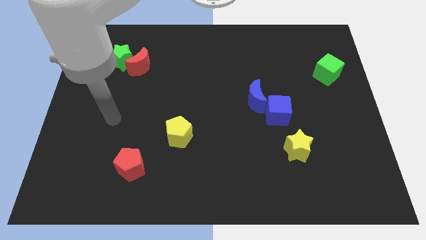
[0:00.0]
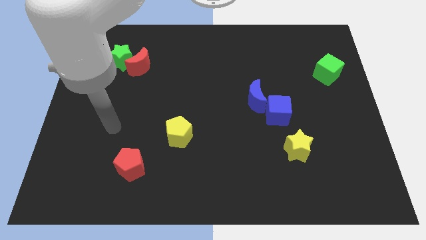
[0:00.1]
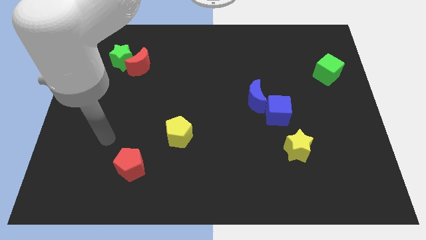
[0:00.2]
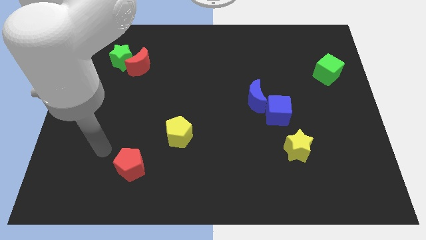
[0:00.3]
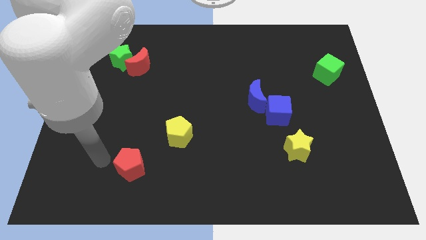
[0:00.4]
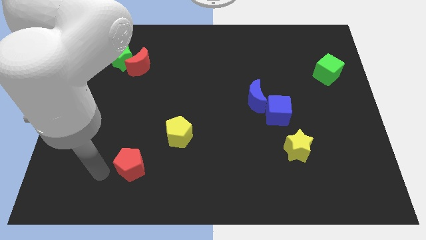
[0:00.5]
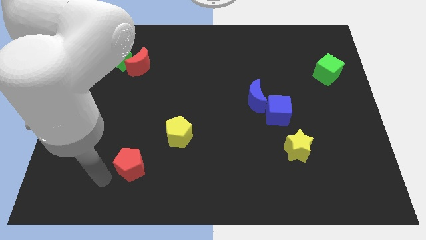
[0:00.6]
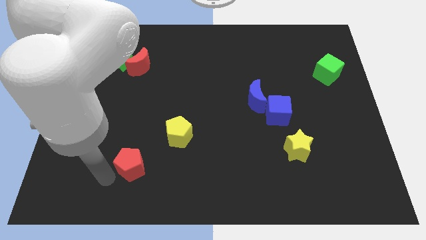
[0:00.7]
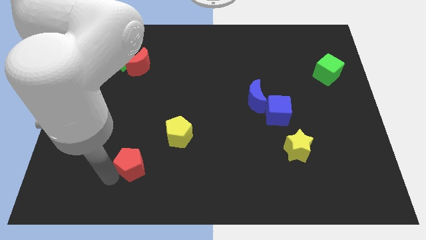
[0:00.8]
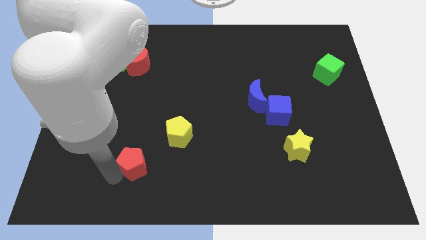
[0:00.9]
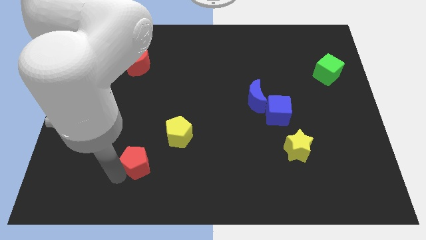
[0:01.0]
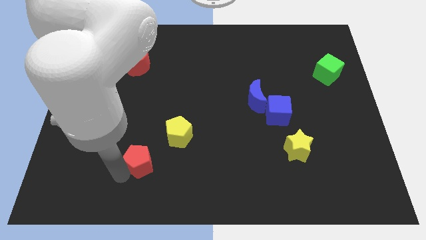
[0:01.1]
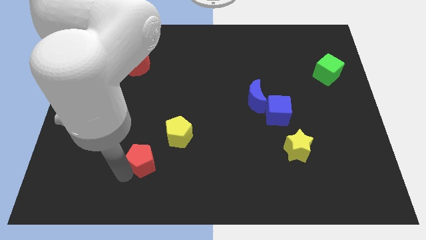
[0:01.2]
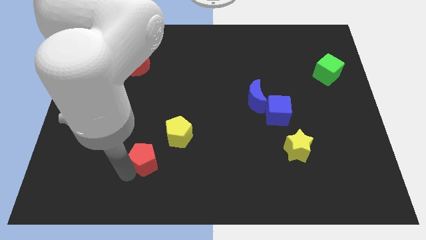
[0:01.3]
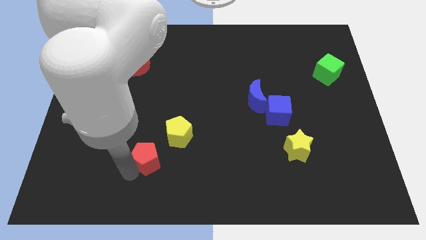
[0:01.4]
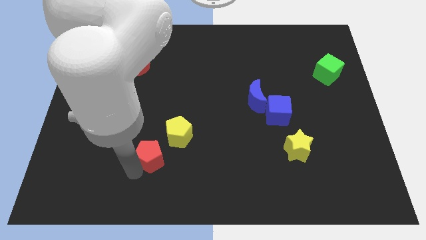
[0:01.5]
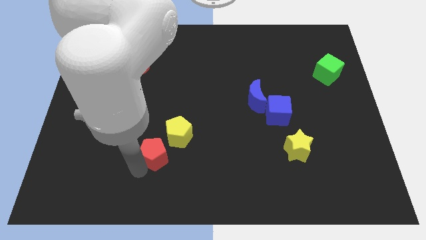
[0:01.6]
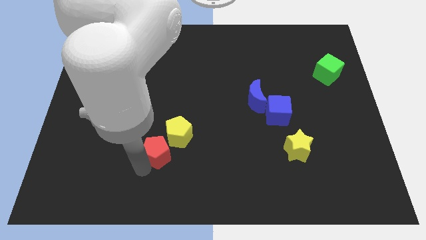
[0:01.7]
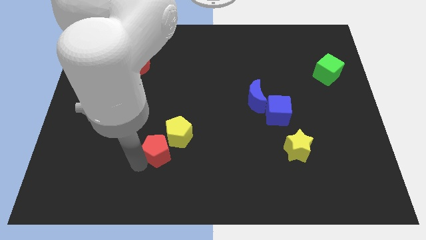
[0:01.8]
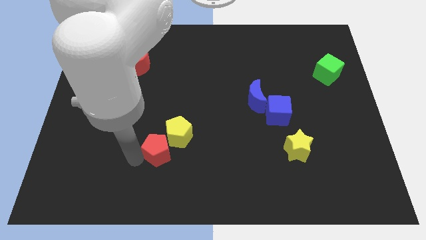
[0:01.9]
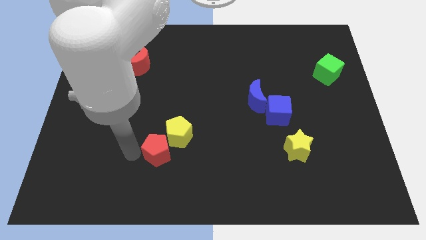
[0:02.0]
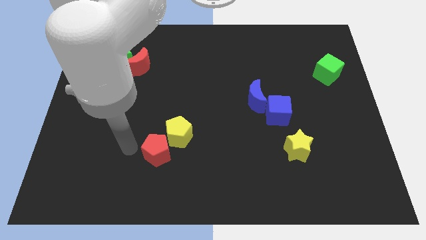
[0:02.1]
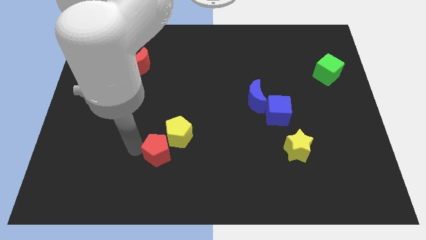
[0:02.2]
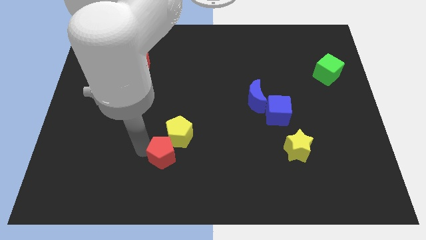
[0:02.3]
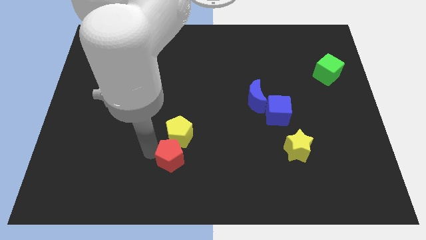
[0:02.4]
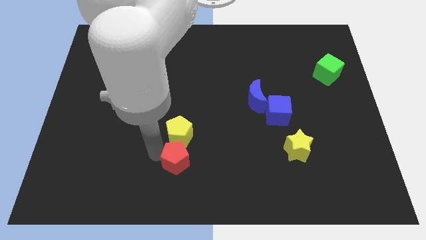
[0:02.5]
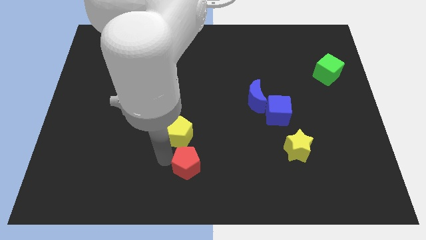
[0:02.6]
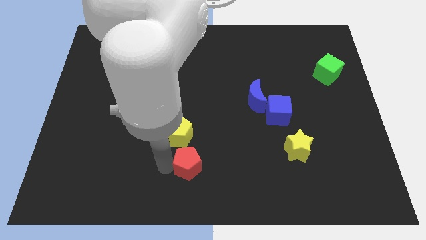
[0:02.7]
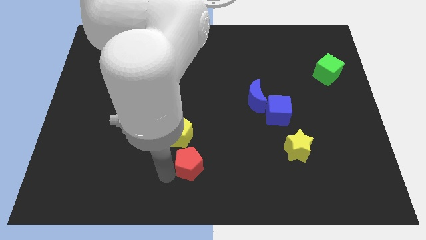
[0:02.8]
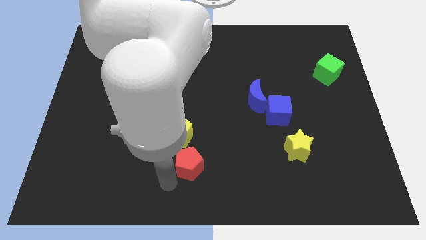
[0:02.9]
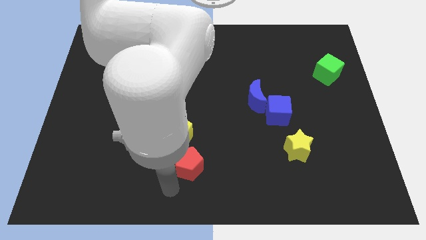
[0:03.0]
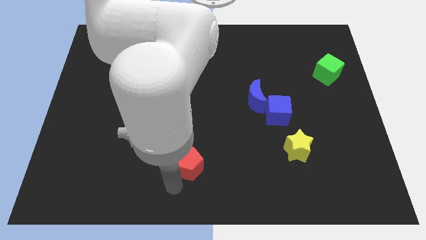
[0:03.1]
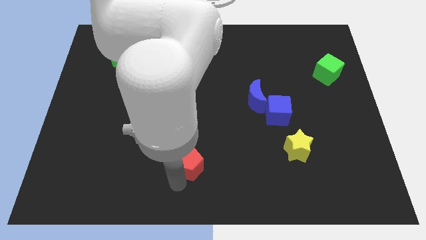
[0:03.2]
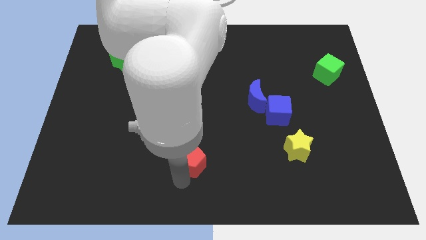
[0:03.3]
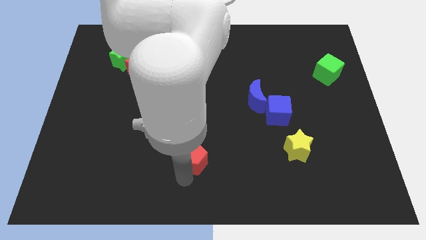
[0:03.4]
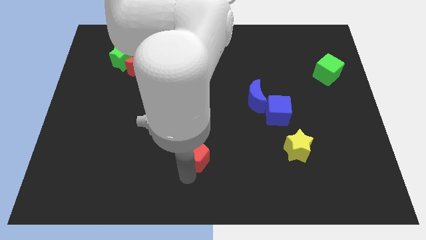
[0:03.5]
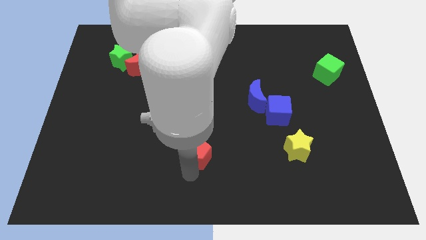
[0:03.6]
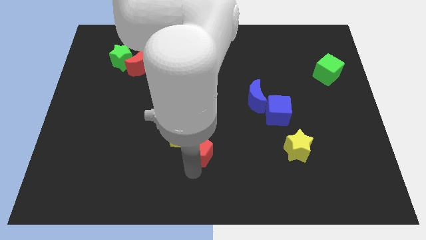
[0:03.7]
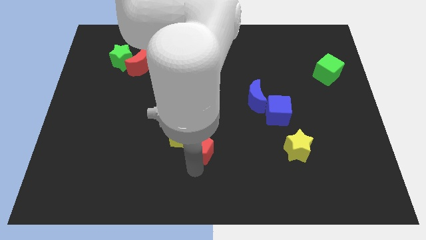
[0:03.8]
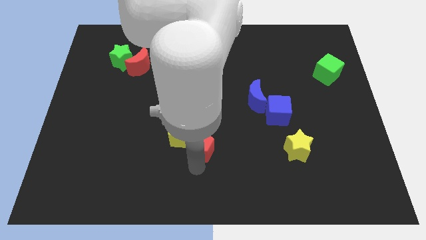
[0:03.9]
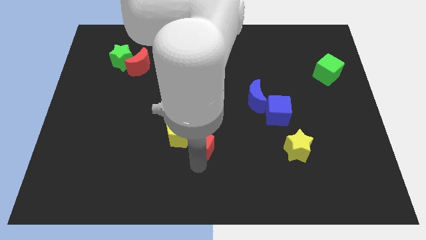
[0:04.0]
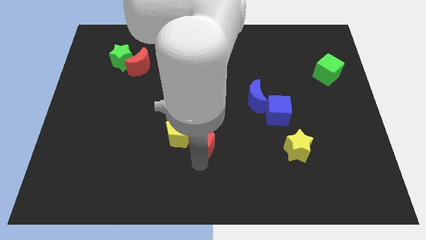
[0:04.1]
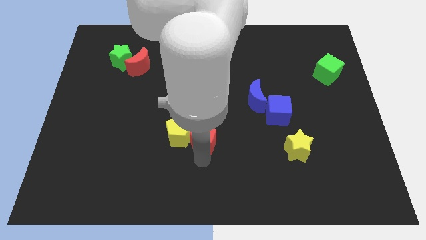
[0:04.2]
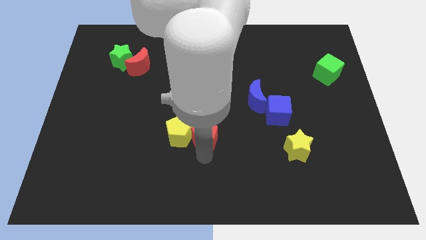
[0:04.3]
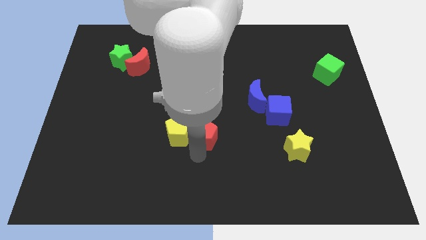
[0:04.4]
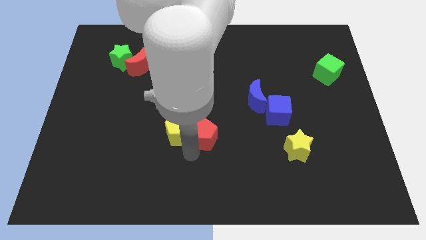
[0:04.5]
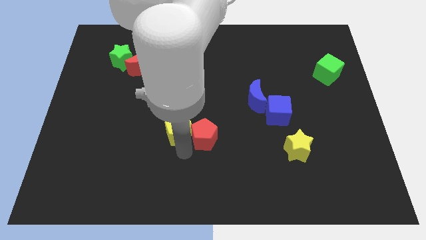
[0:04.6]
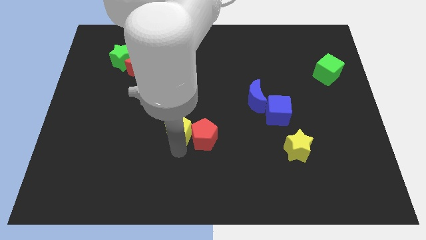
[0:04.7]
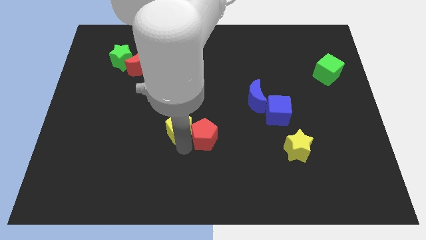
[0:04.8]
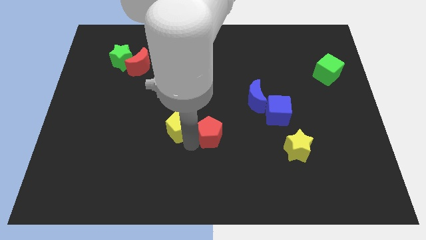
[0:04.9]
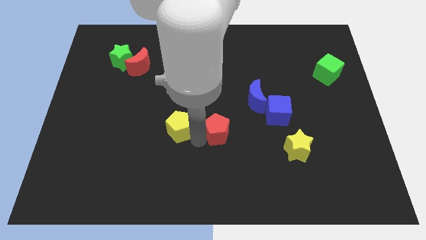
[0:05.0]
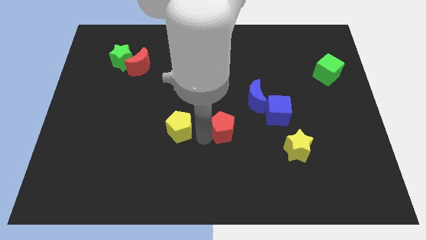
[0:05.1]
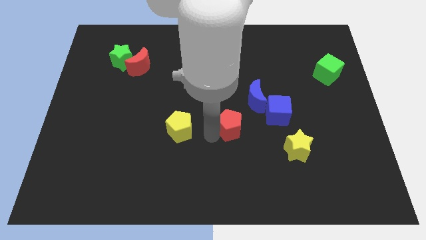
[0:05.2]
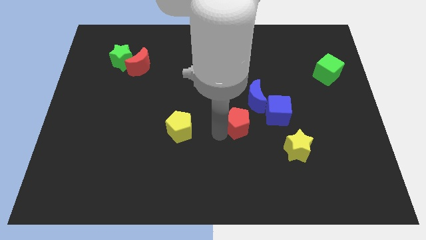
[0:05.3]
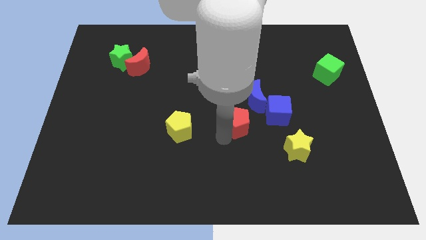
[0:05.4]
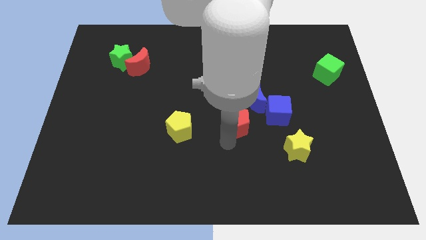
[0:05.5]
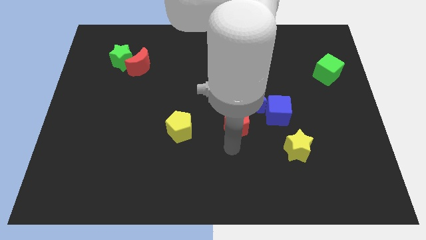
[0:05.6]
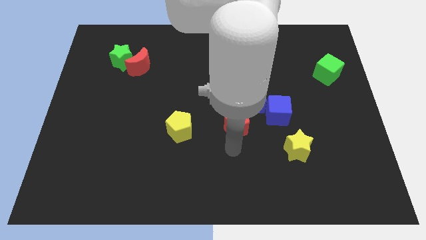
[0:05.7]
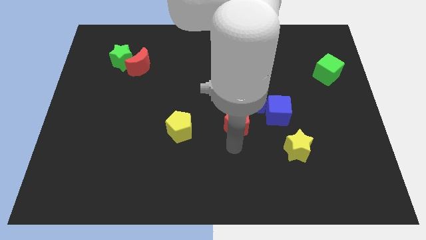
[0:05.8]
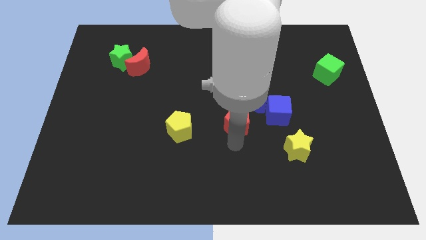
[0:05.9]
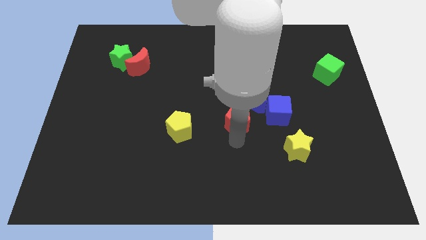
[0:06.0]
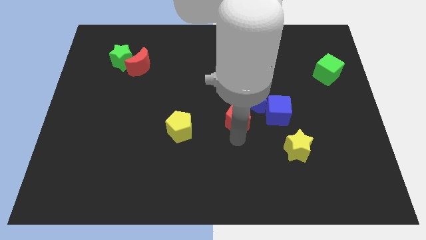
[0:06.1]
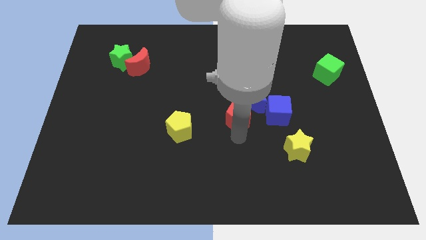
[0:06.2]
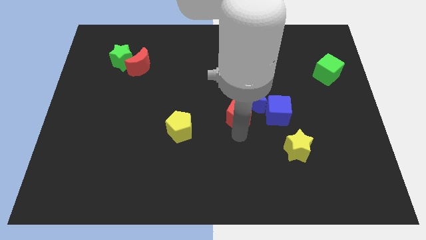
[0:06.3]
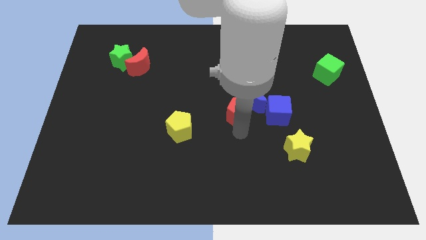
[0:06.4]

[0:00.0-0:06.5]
put the red pentagon to the blue moon
